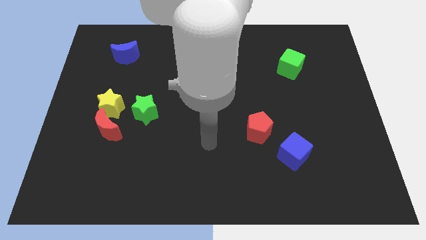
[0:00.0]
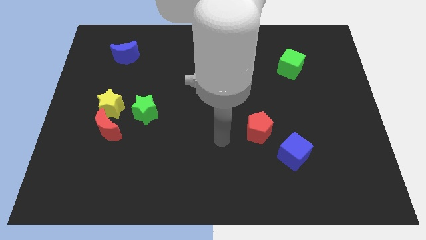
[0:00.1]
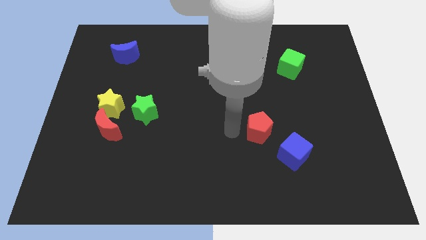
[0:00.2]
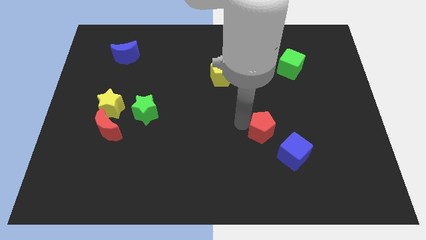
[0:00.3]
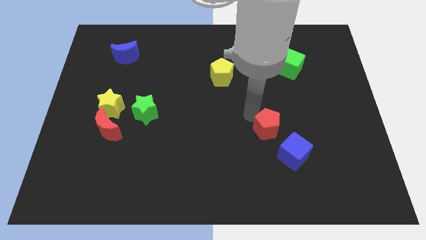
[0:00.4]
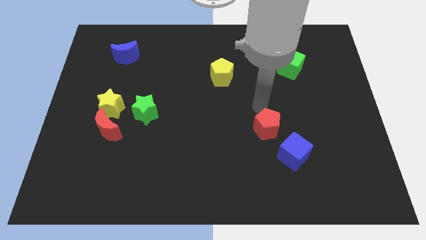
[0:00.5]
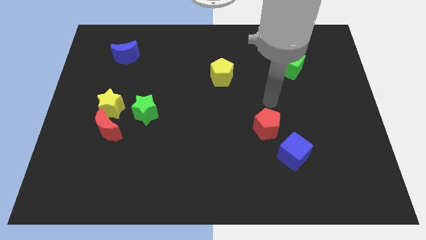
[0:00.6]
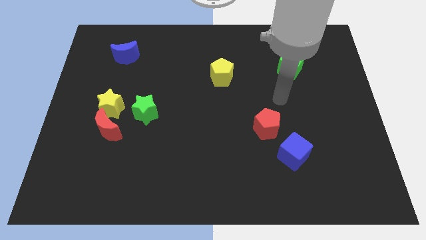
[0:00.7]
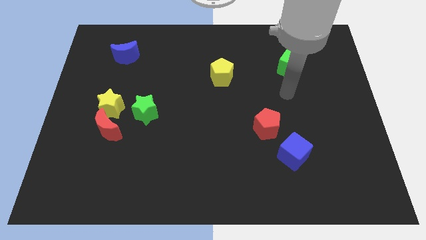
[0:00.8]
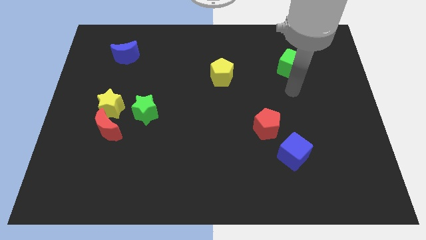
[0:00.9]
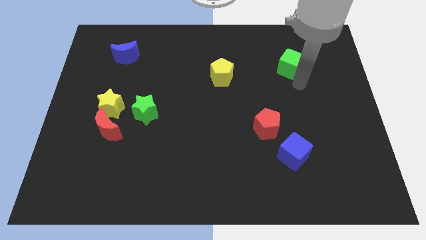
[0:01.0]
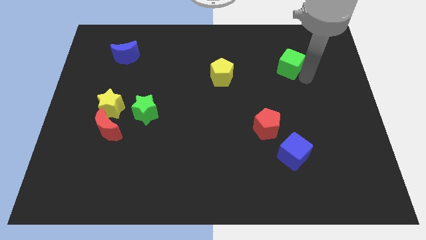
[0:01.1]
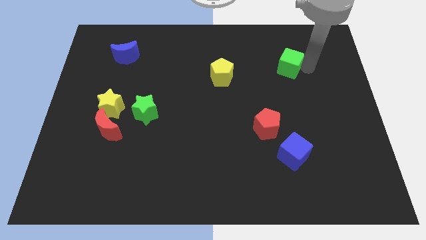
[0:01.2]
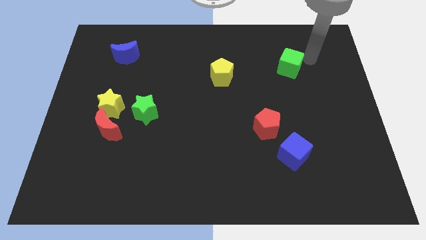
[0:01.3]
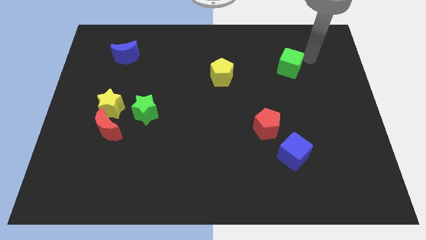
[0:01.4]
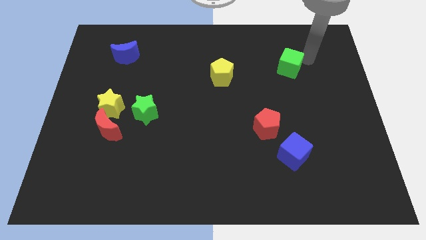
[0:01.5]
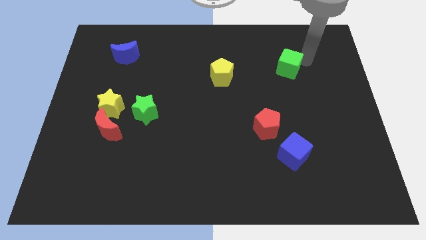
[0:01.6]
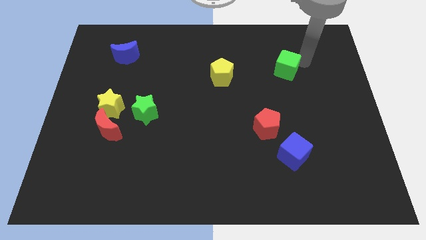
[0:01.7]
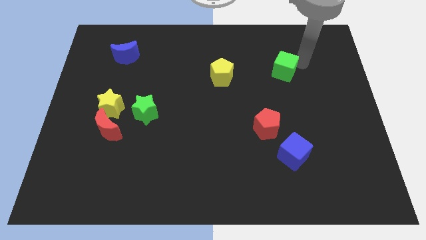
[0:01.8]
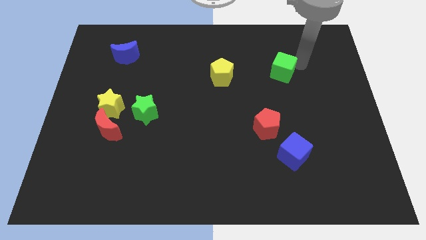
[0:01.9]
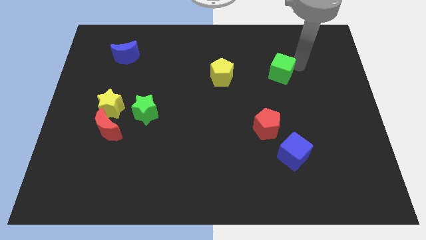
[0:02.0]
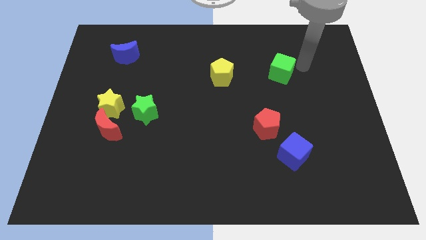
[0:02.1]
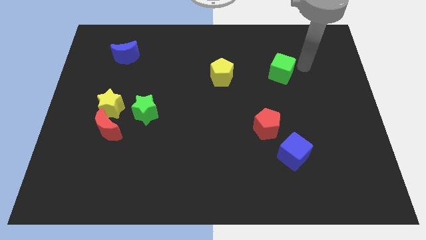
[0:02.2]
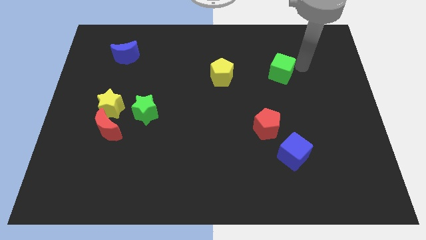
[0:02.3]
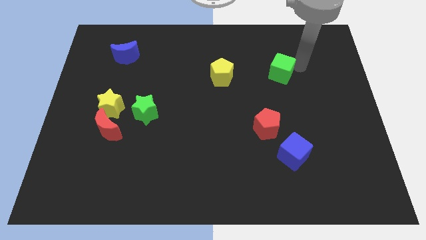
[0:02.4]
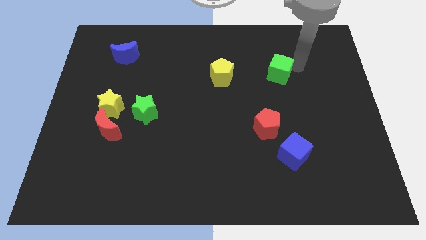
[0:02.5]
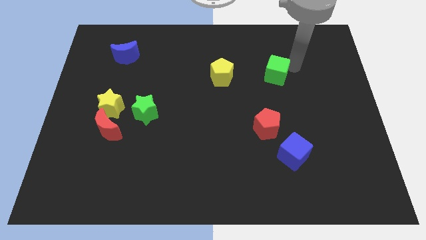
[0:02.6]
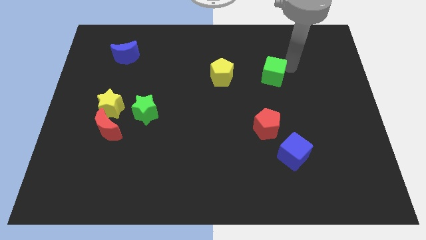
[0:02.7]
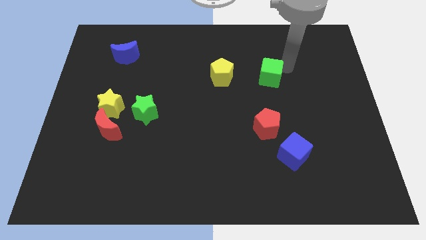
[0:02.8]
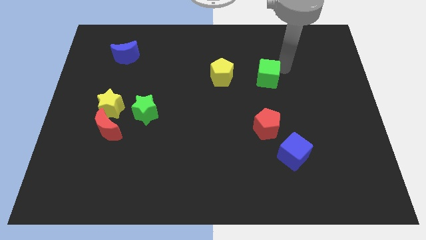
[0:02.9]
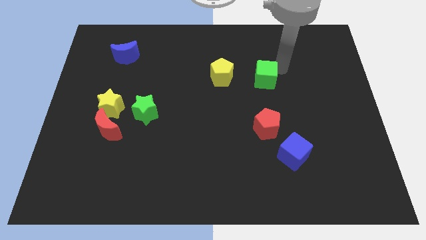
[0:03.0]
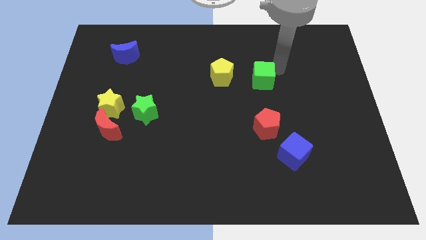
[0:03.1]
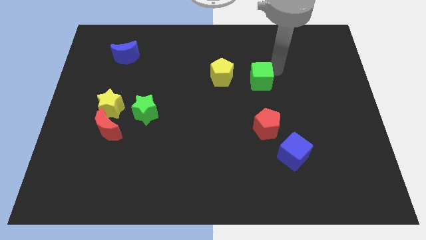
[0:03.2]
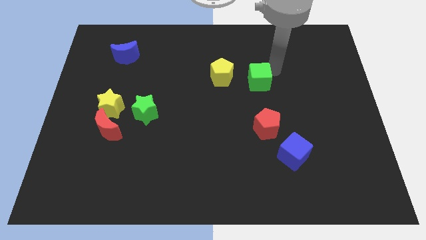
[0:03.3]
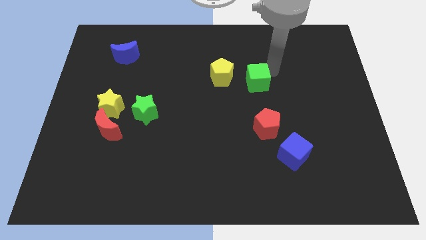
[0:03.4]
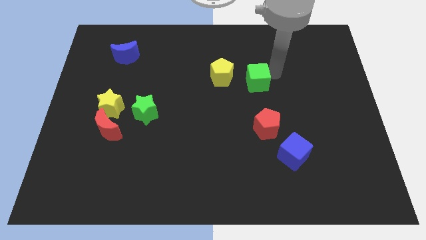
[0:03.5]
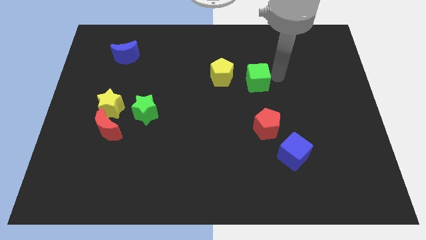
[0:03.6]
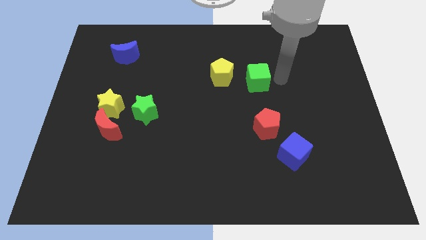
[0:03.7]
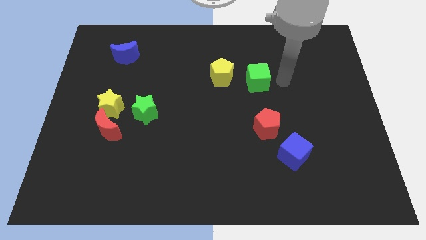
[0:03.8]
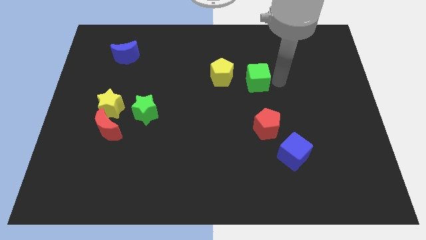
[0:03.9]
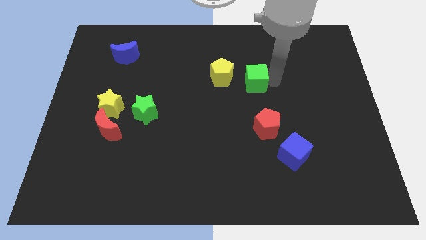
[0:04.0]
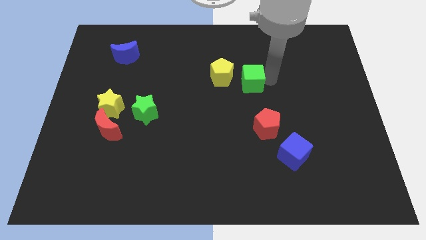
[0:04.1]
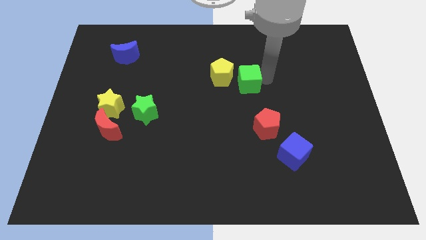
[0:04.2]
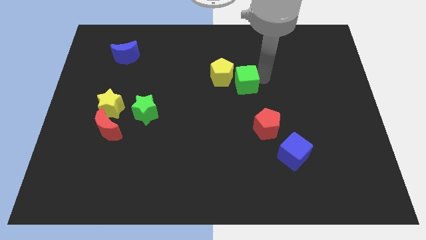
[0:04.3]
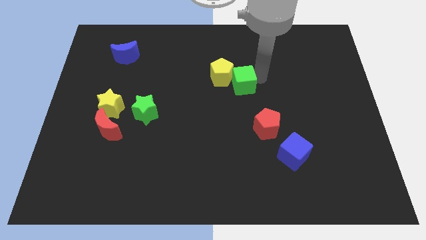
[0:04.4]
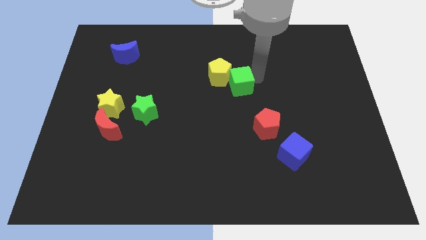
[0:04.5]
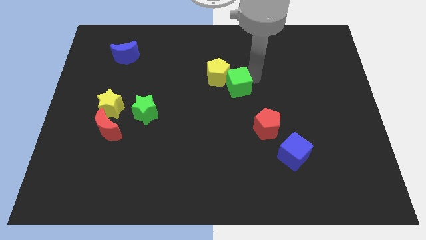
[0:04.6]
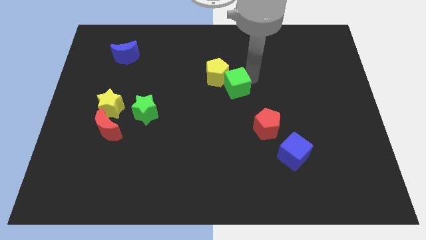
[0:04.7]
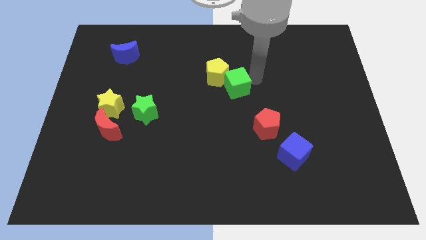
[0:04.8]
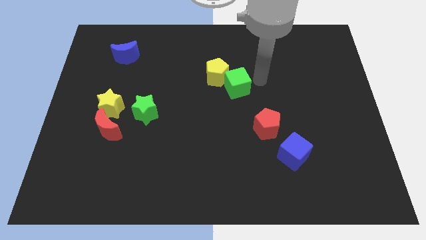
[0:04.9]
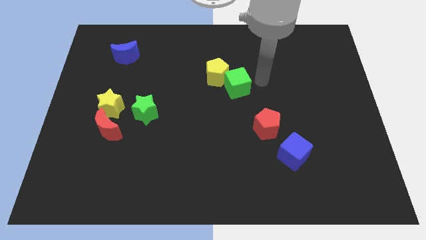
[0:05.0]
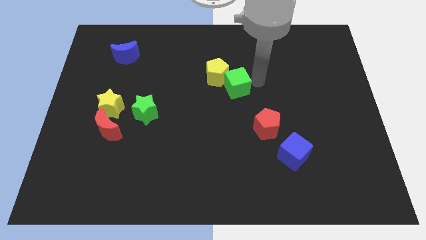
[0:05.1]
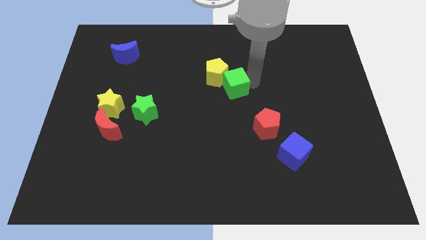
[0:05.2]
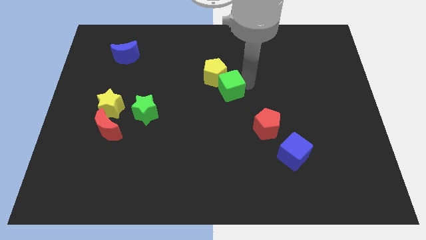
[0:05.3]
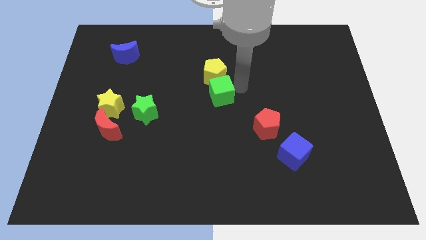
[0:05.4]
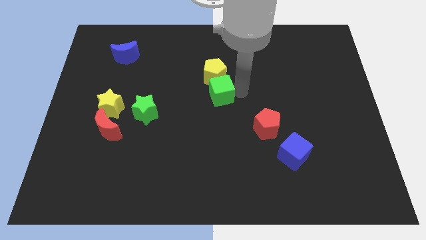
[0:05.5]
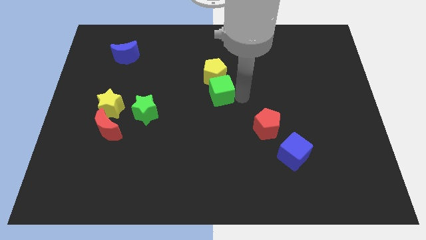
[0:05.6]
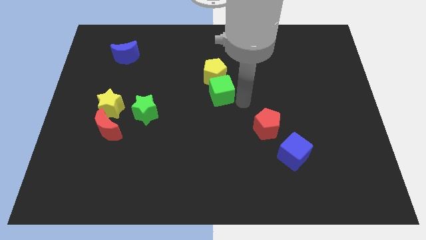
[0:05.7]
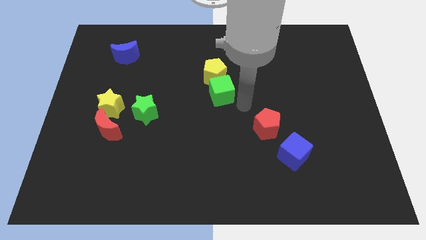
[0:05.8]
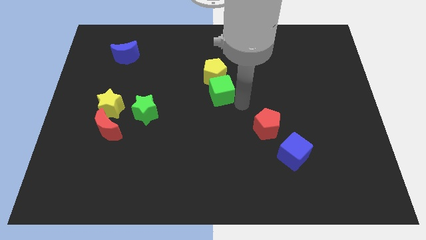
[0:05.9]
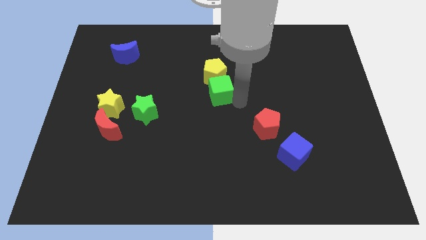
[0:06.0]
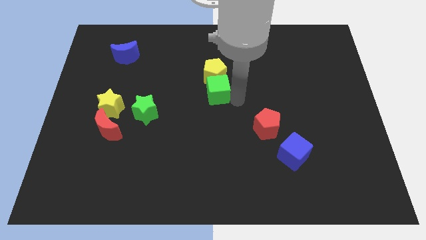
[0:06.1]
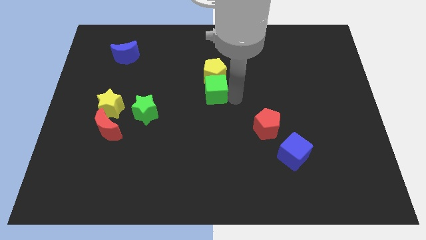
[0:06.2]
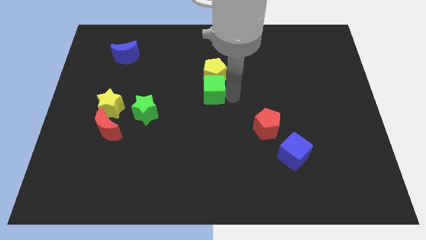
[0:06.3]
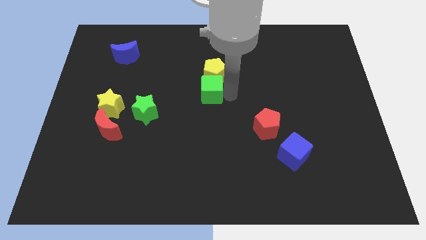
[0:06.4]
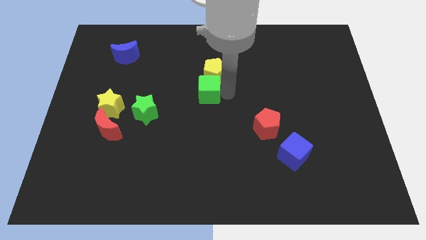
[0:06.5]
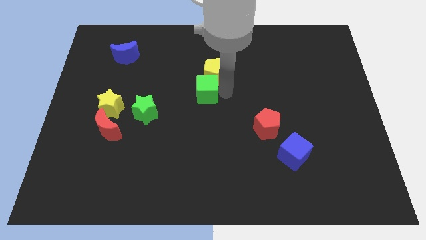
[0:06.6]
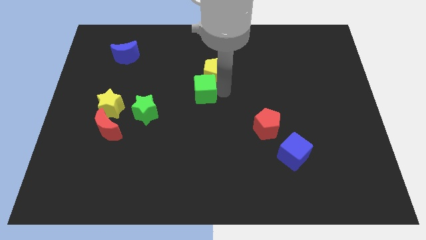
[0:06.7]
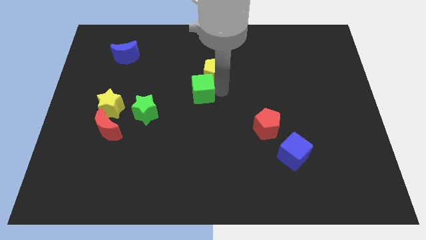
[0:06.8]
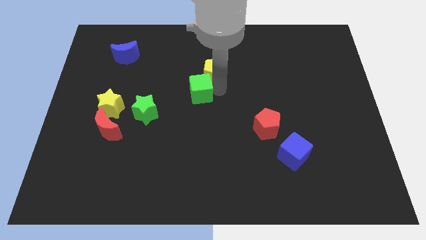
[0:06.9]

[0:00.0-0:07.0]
push the green cube to the left

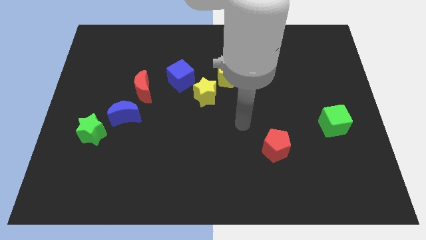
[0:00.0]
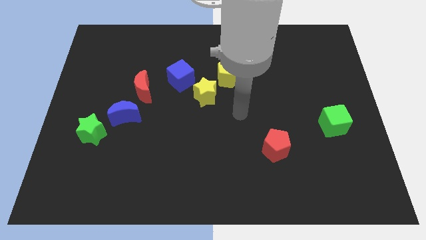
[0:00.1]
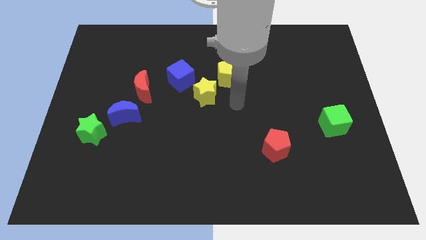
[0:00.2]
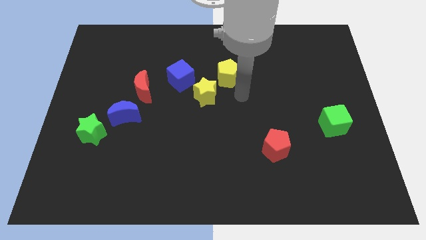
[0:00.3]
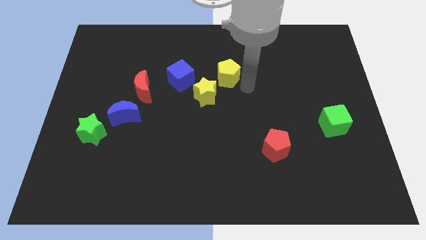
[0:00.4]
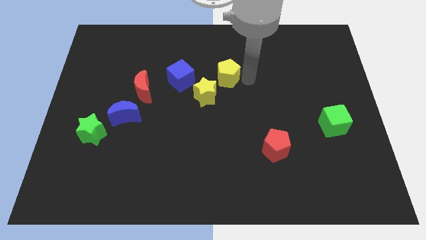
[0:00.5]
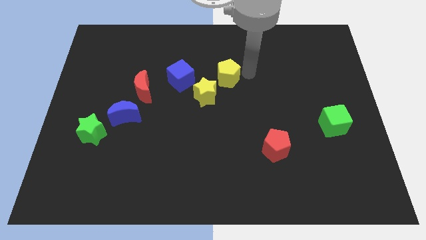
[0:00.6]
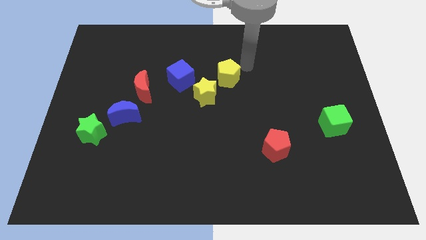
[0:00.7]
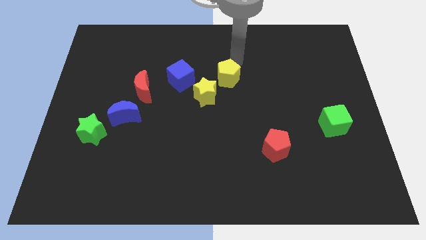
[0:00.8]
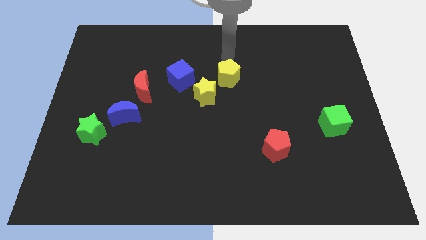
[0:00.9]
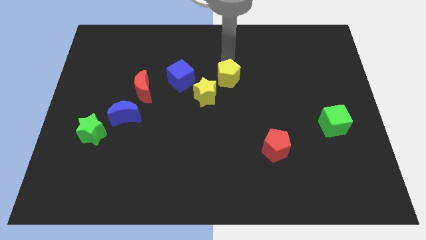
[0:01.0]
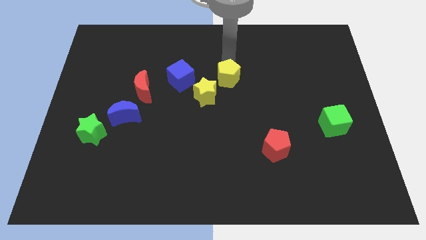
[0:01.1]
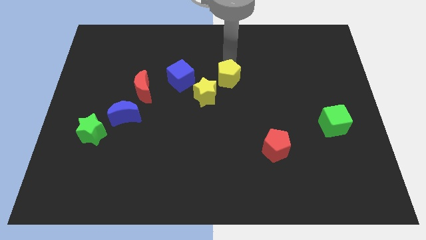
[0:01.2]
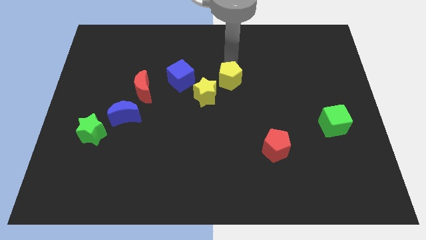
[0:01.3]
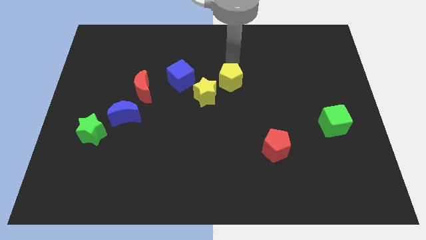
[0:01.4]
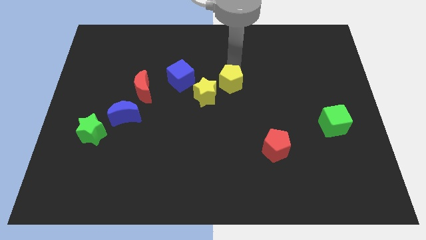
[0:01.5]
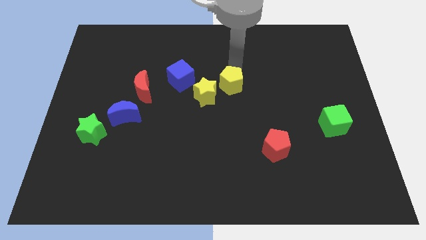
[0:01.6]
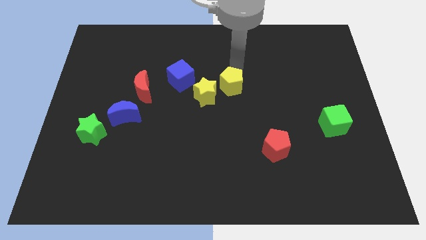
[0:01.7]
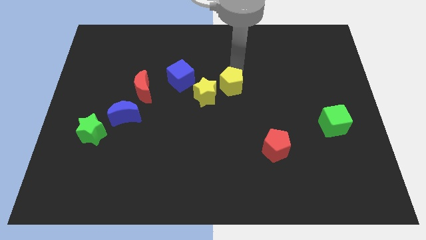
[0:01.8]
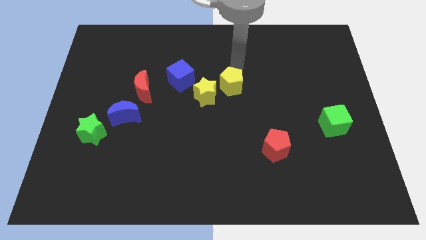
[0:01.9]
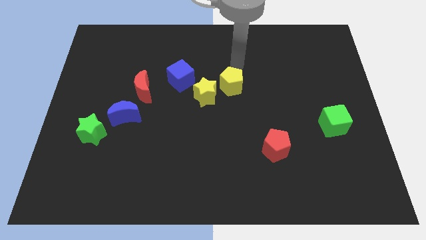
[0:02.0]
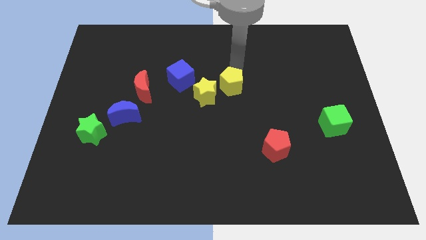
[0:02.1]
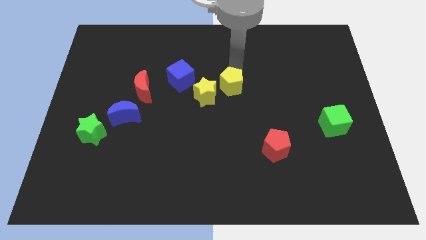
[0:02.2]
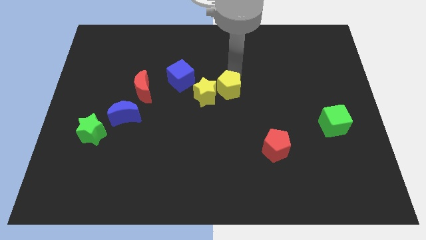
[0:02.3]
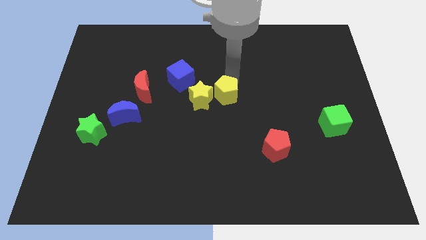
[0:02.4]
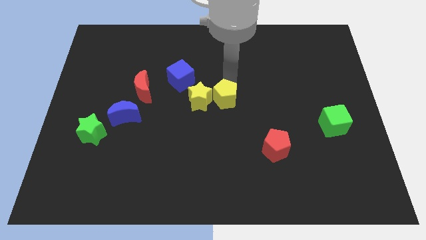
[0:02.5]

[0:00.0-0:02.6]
move the yellow pentagon downwards a little
